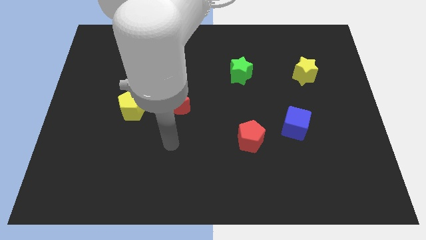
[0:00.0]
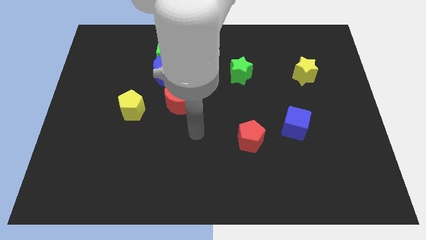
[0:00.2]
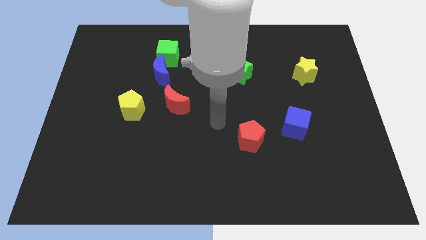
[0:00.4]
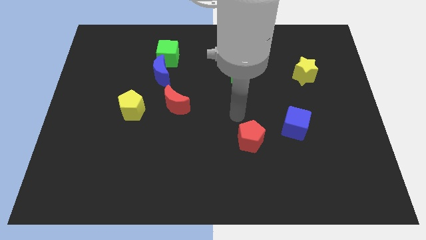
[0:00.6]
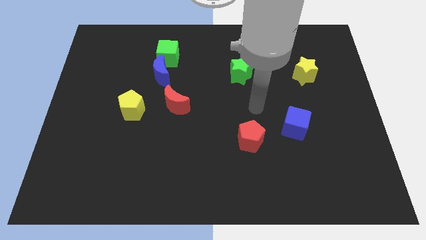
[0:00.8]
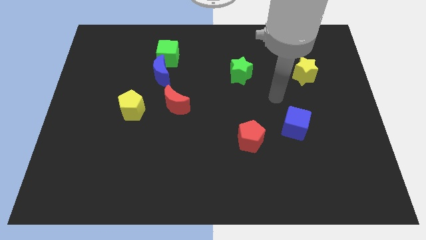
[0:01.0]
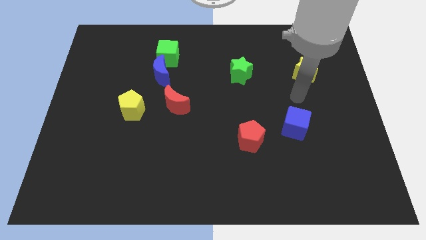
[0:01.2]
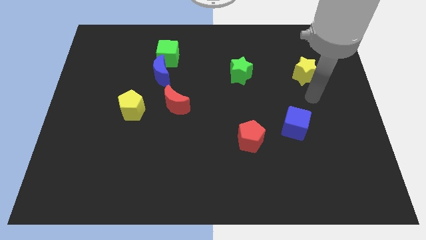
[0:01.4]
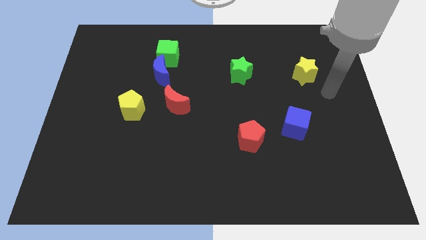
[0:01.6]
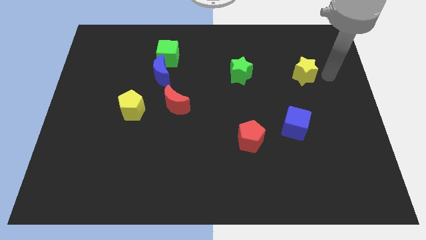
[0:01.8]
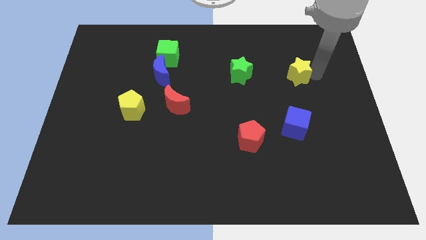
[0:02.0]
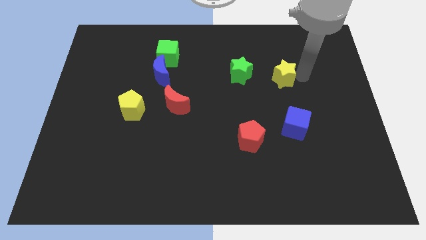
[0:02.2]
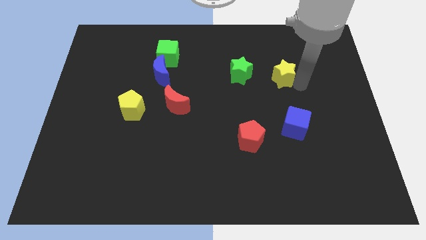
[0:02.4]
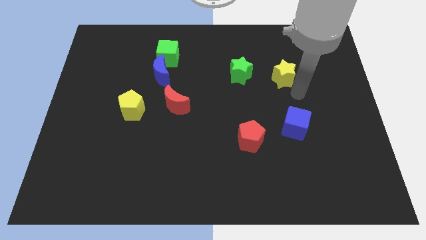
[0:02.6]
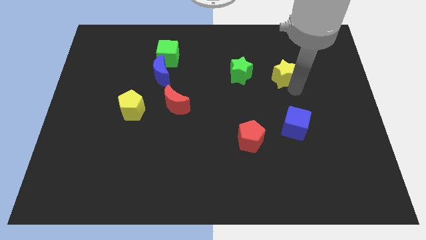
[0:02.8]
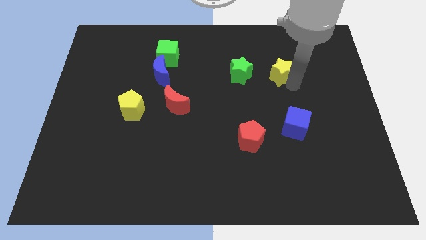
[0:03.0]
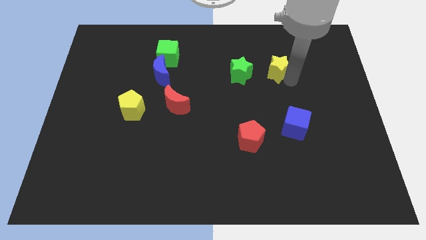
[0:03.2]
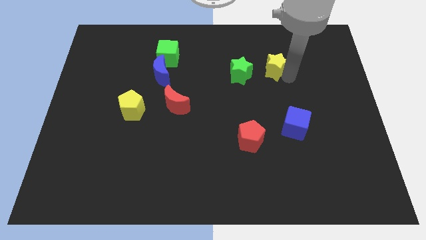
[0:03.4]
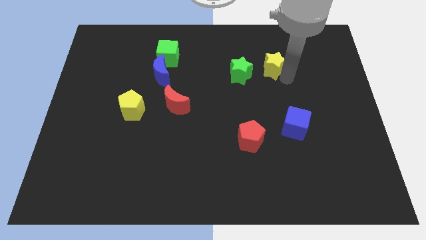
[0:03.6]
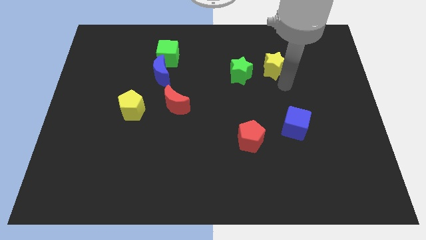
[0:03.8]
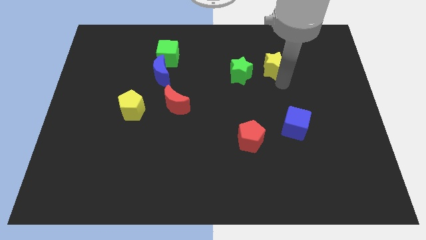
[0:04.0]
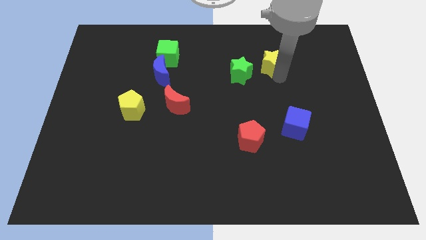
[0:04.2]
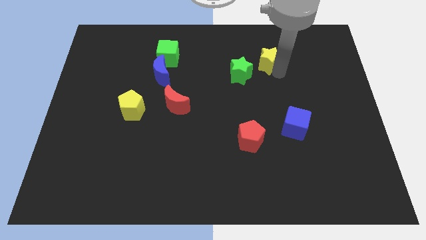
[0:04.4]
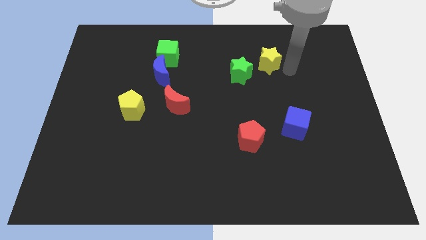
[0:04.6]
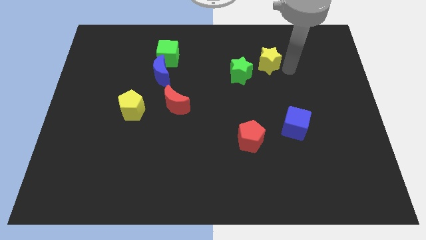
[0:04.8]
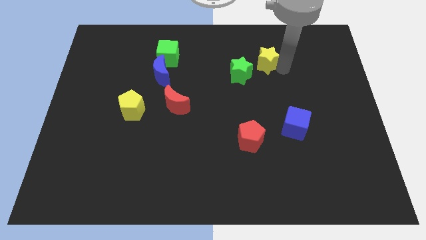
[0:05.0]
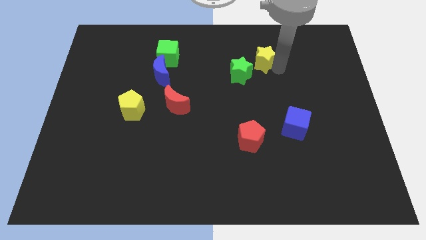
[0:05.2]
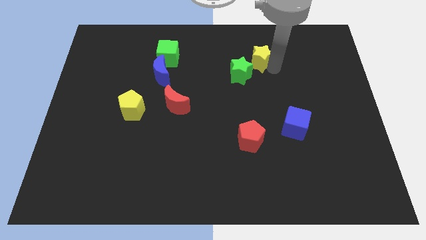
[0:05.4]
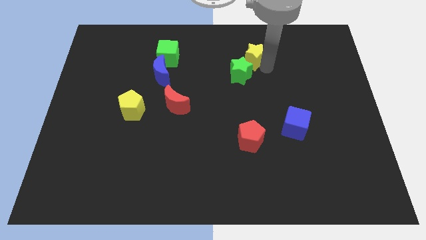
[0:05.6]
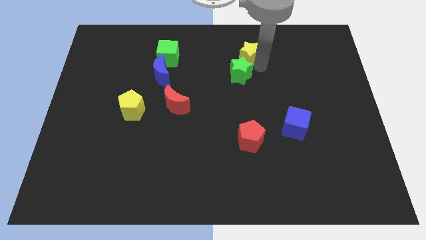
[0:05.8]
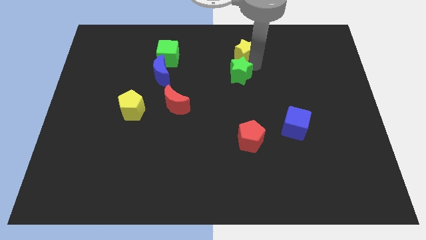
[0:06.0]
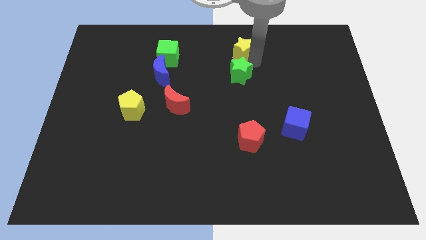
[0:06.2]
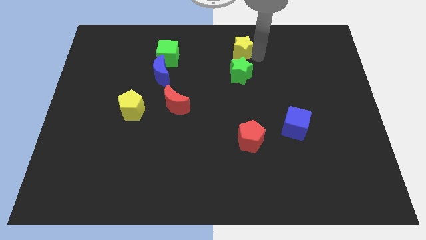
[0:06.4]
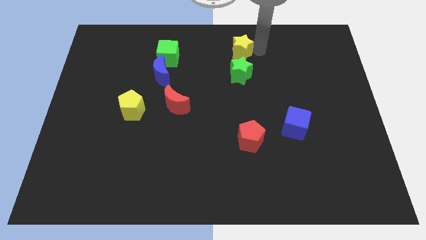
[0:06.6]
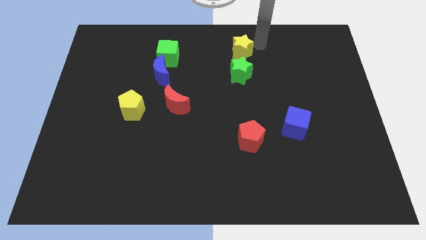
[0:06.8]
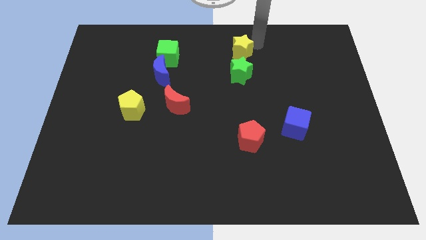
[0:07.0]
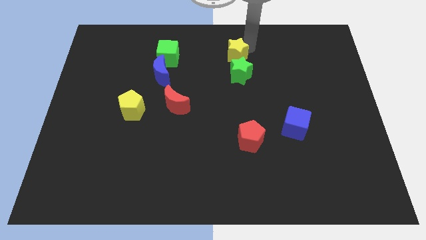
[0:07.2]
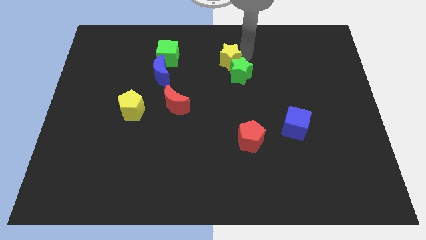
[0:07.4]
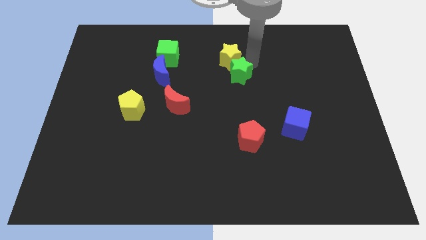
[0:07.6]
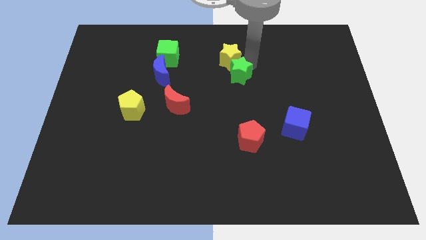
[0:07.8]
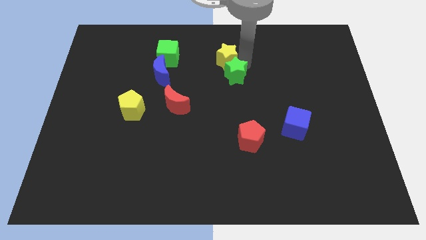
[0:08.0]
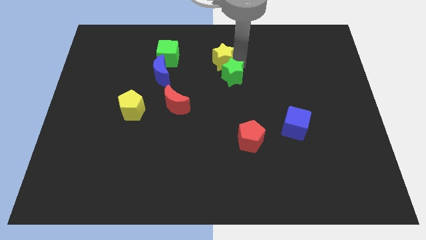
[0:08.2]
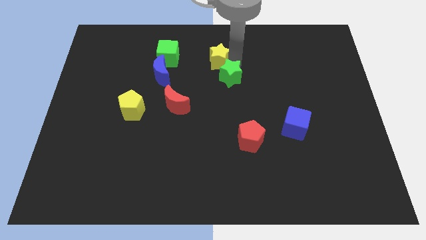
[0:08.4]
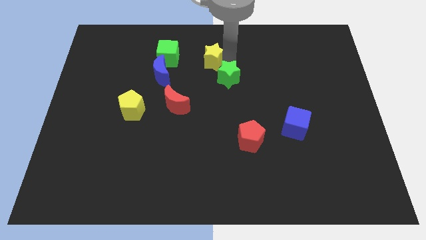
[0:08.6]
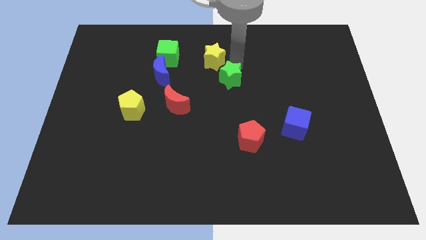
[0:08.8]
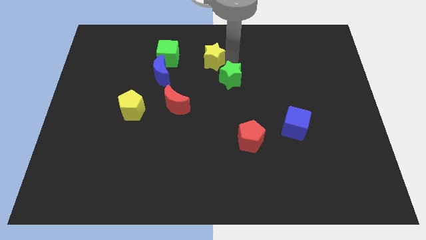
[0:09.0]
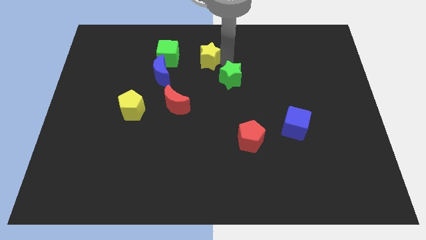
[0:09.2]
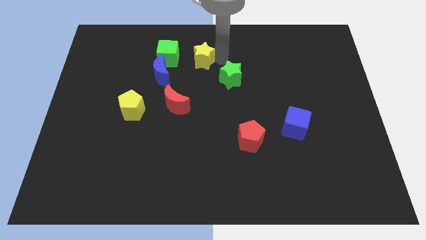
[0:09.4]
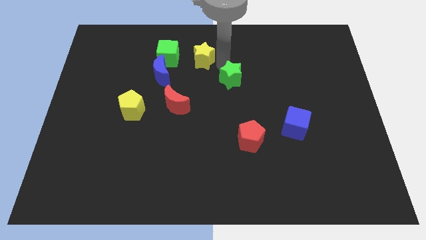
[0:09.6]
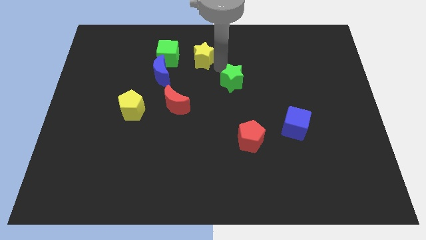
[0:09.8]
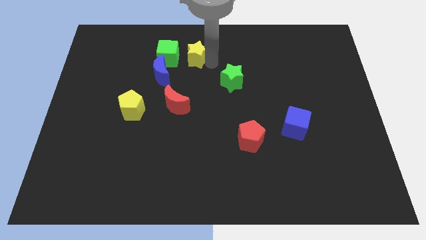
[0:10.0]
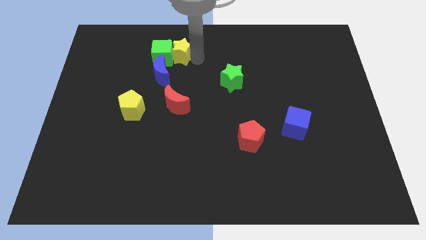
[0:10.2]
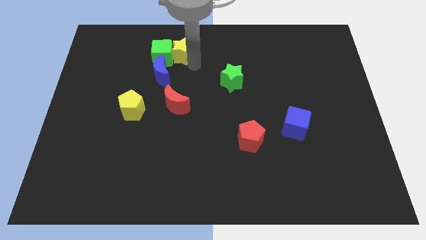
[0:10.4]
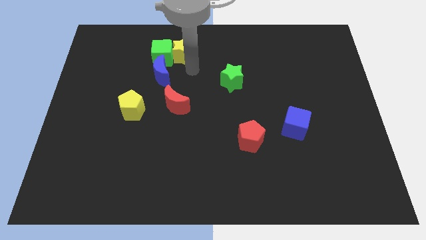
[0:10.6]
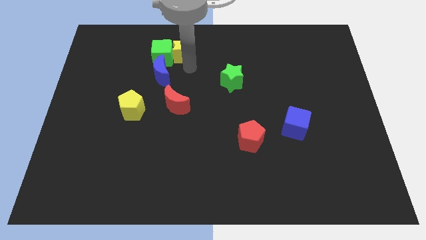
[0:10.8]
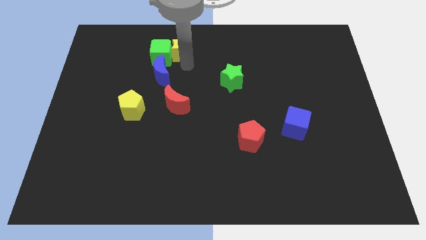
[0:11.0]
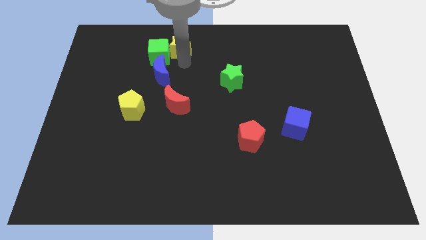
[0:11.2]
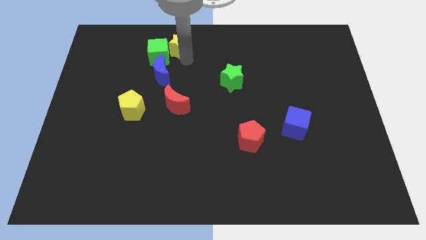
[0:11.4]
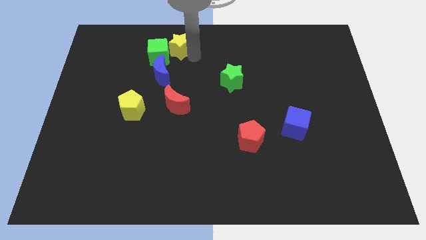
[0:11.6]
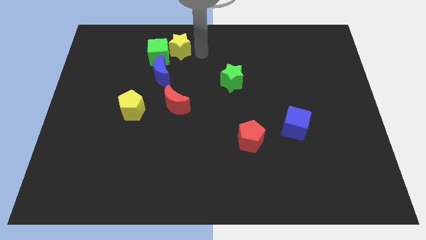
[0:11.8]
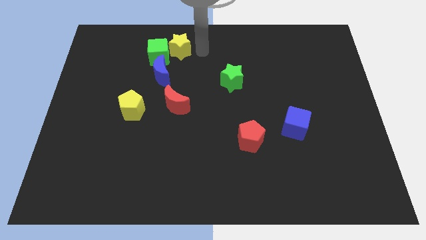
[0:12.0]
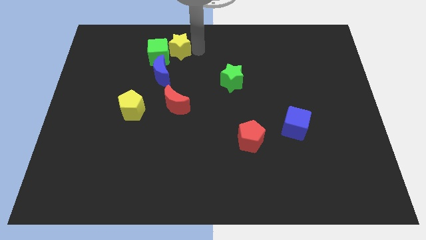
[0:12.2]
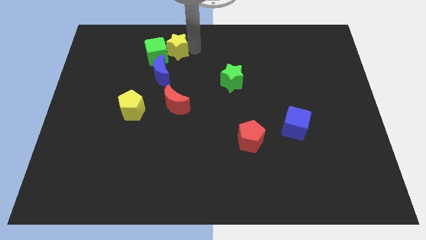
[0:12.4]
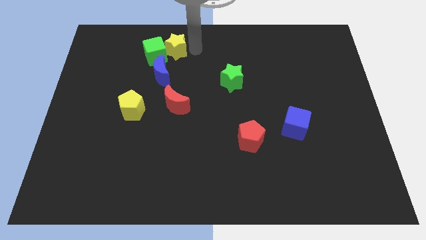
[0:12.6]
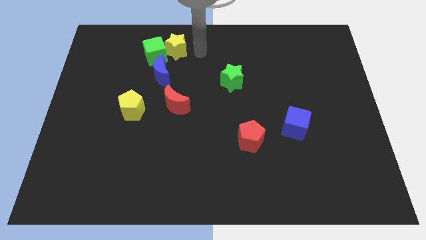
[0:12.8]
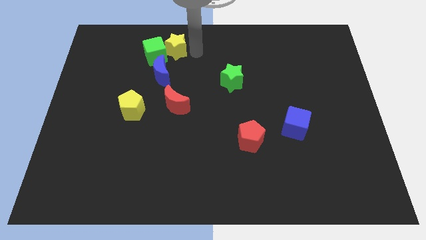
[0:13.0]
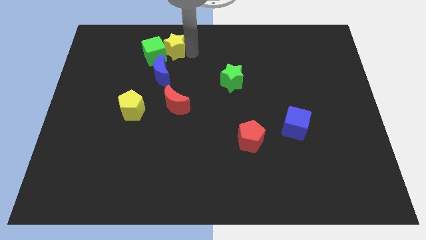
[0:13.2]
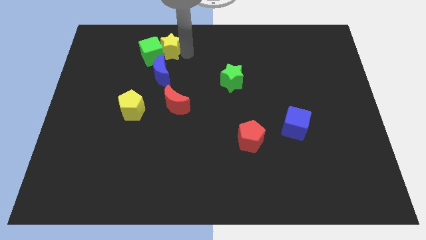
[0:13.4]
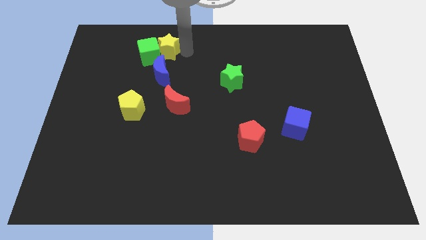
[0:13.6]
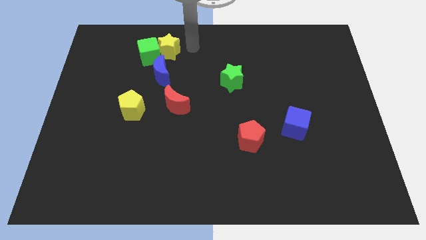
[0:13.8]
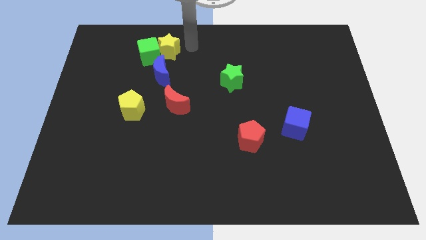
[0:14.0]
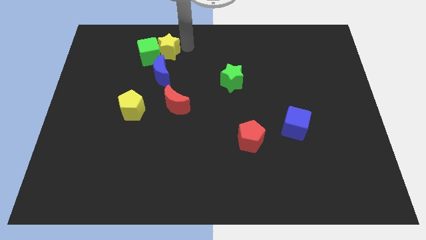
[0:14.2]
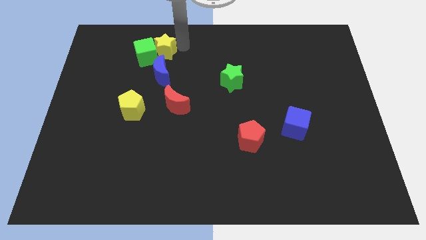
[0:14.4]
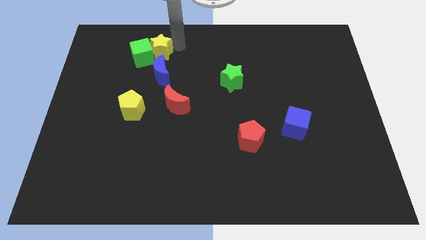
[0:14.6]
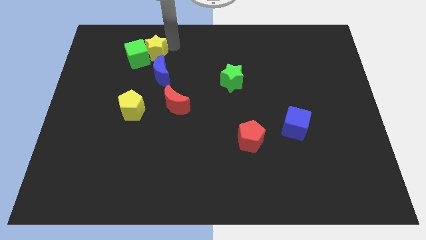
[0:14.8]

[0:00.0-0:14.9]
push the yellow star diagonally up and to the left of the blue moon
